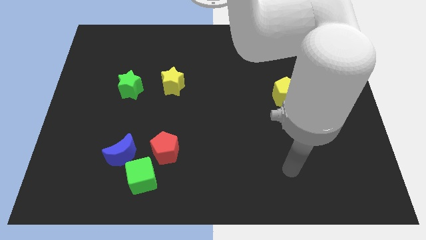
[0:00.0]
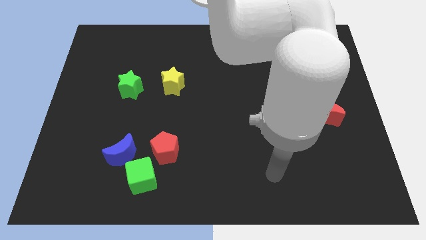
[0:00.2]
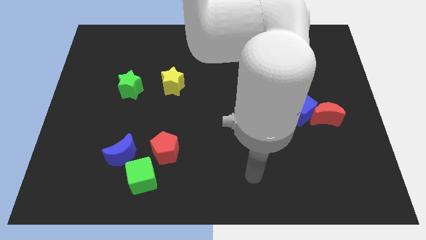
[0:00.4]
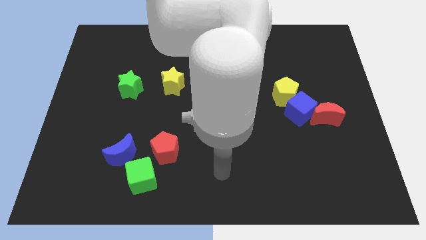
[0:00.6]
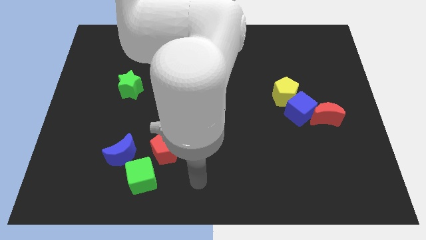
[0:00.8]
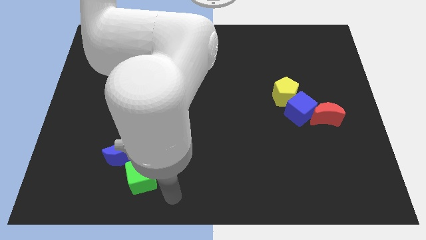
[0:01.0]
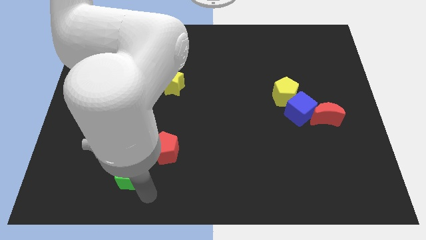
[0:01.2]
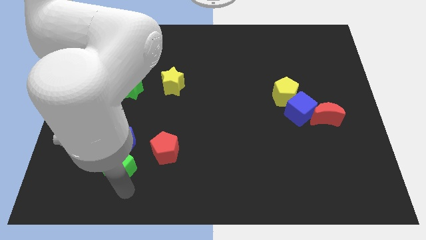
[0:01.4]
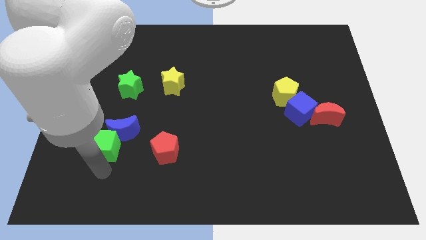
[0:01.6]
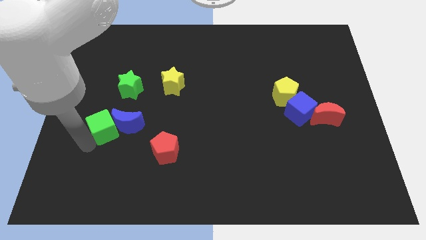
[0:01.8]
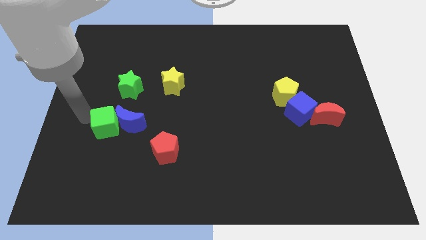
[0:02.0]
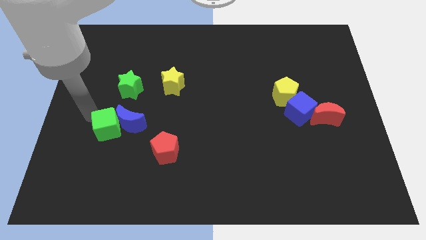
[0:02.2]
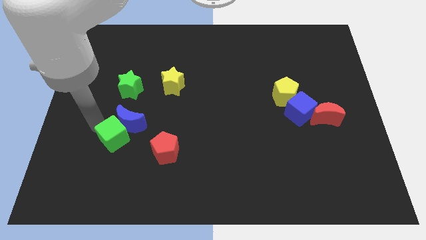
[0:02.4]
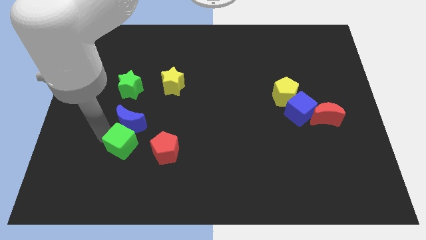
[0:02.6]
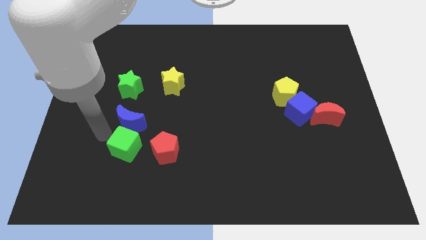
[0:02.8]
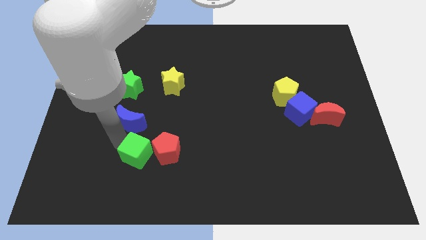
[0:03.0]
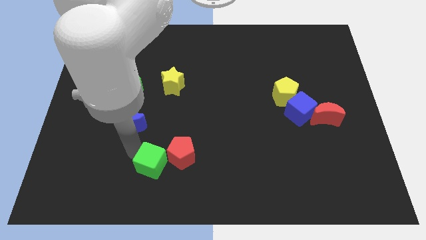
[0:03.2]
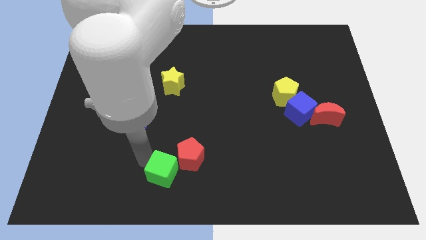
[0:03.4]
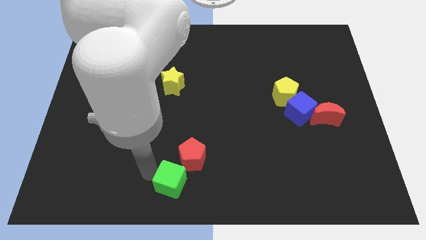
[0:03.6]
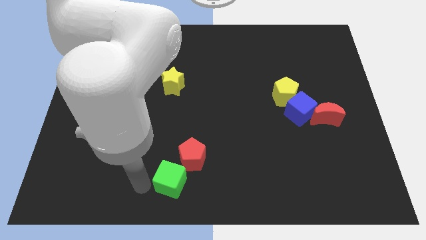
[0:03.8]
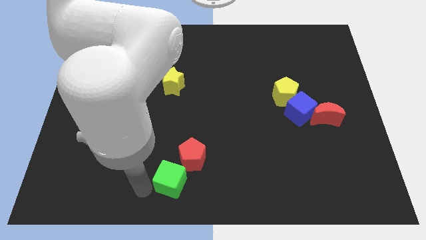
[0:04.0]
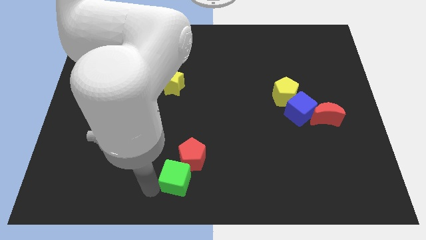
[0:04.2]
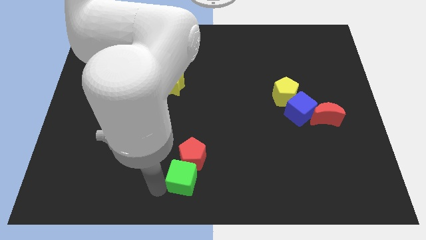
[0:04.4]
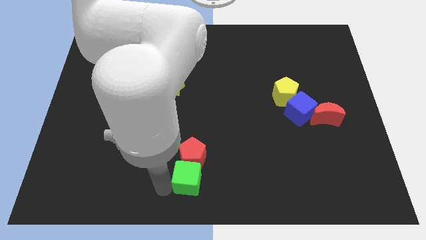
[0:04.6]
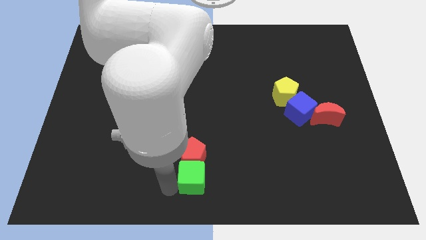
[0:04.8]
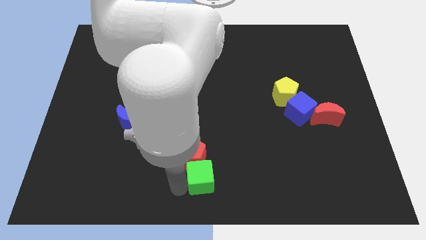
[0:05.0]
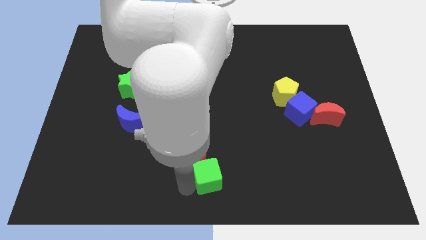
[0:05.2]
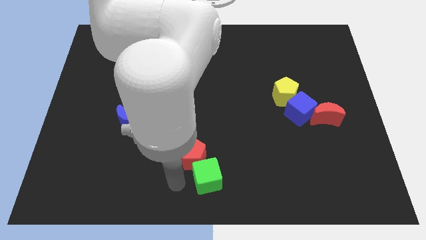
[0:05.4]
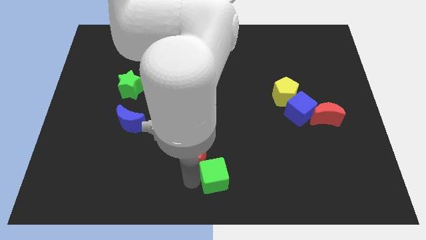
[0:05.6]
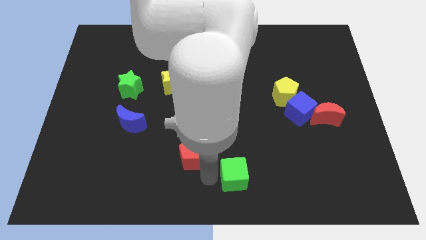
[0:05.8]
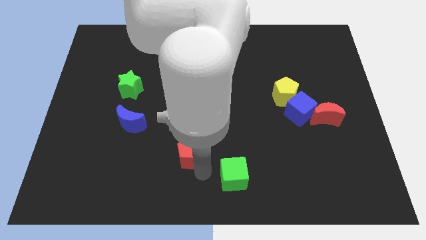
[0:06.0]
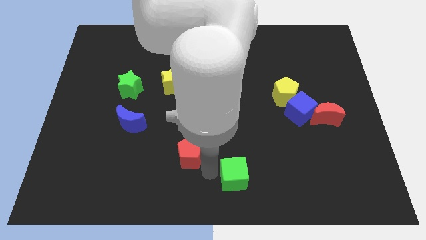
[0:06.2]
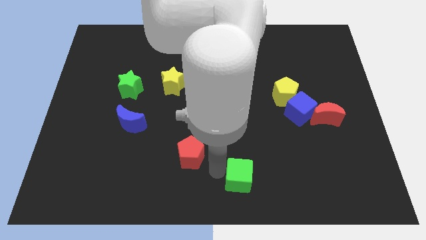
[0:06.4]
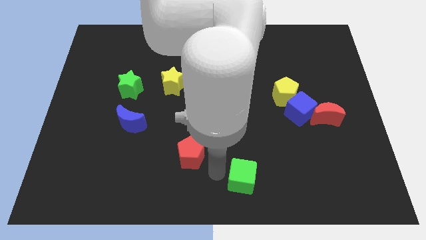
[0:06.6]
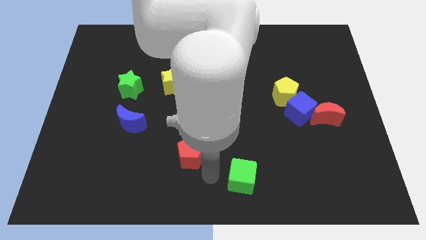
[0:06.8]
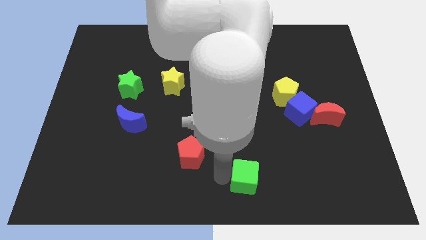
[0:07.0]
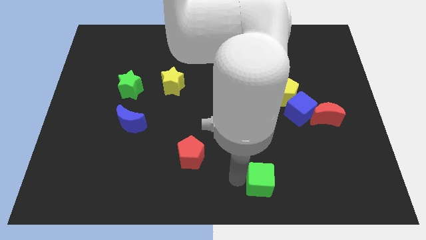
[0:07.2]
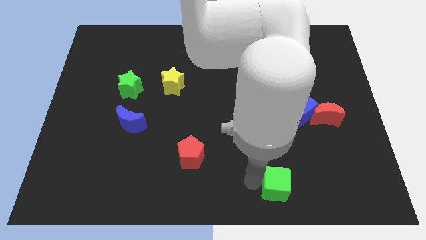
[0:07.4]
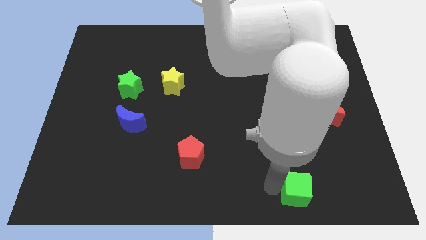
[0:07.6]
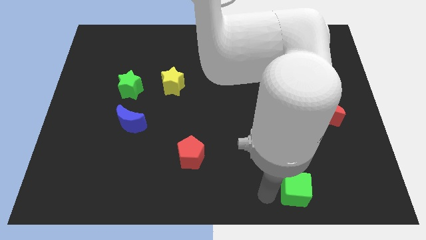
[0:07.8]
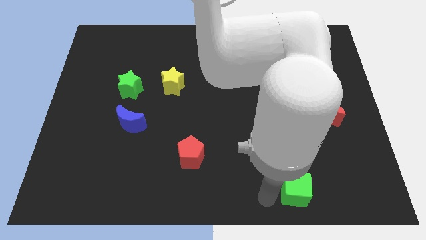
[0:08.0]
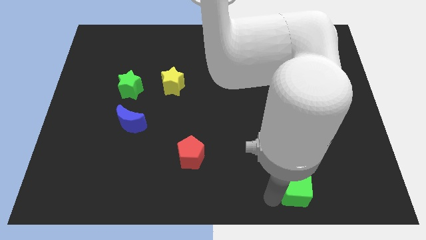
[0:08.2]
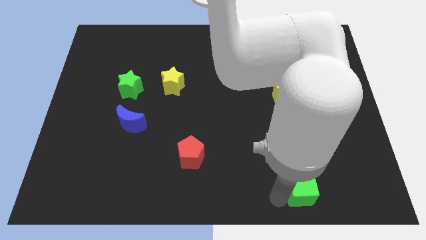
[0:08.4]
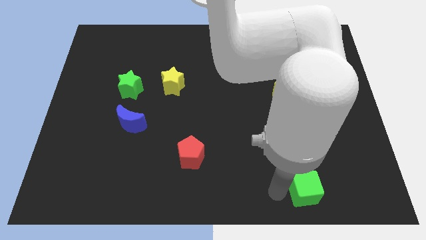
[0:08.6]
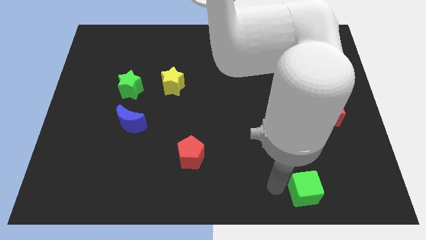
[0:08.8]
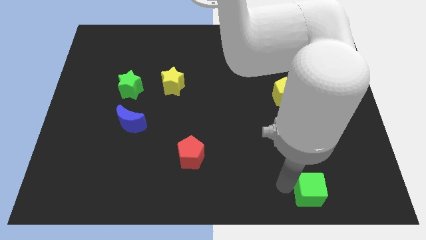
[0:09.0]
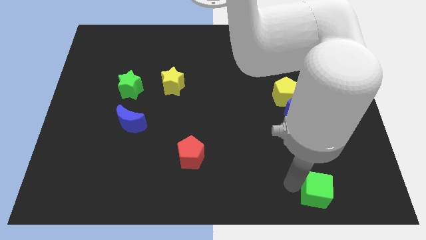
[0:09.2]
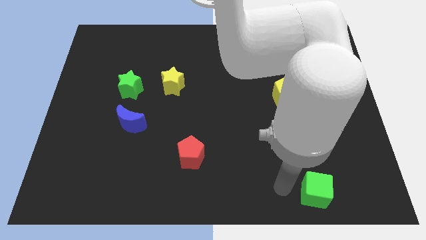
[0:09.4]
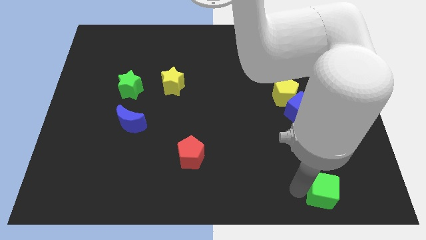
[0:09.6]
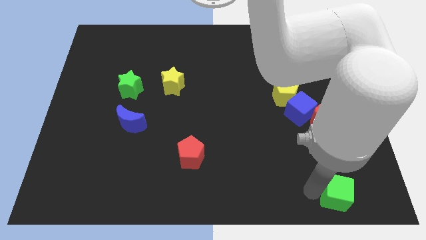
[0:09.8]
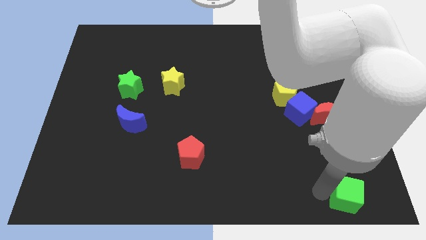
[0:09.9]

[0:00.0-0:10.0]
put the green cube to the bottom right of the board

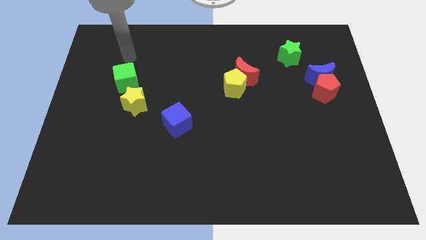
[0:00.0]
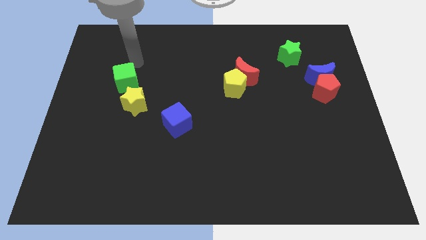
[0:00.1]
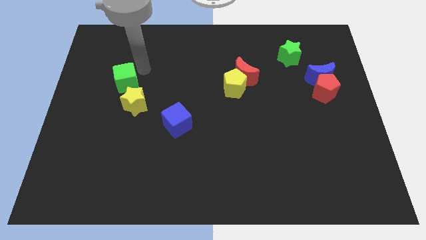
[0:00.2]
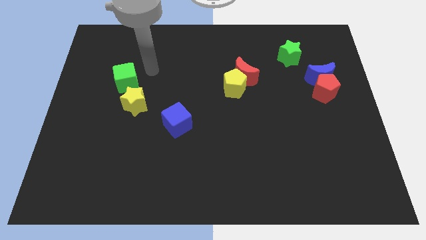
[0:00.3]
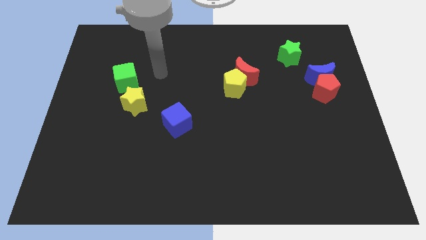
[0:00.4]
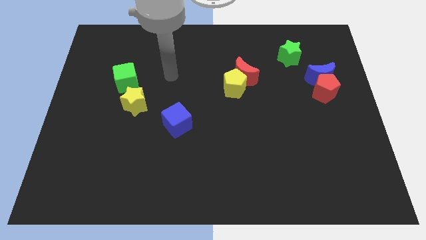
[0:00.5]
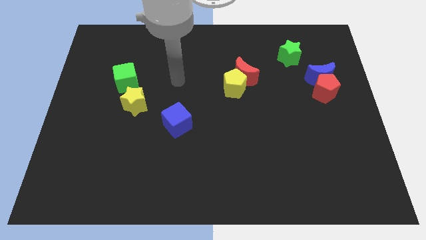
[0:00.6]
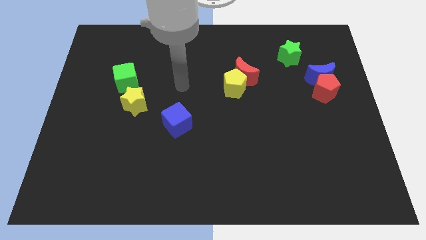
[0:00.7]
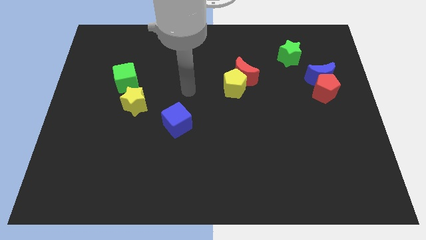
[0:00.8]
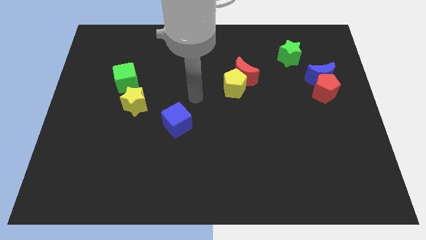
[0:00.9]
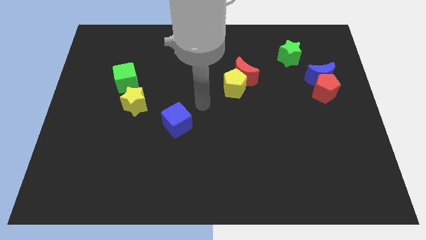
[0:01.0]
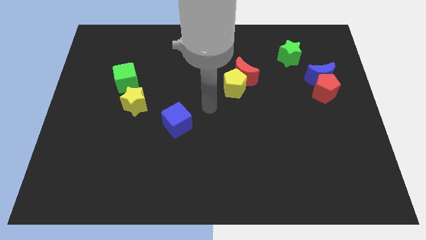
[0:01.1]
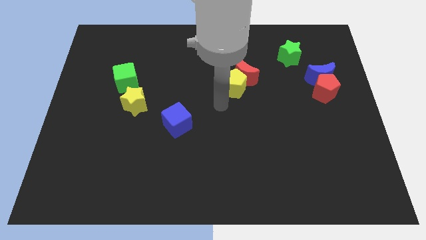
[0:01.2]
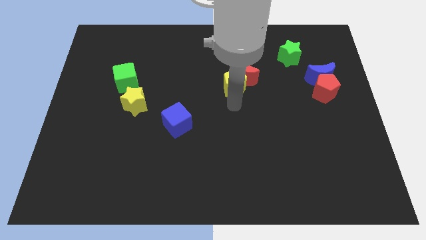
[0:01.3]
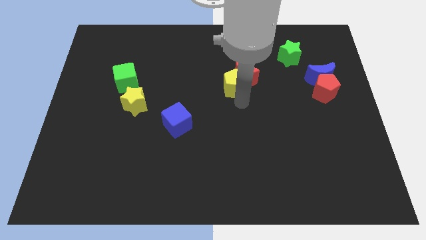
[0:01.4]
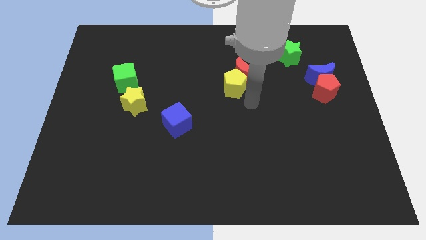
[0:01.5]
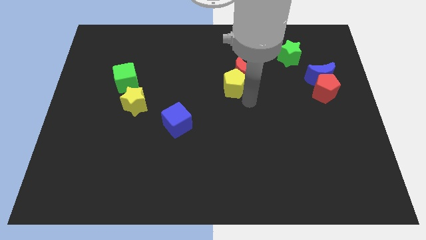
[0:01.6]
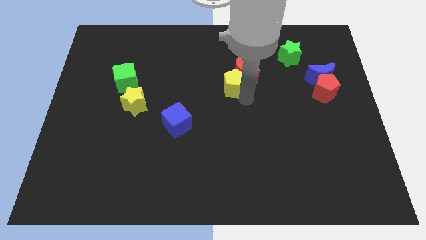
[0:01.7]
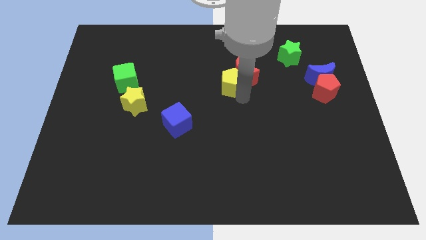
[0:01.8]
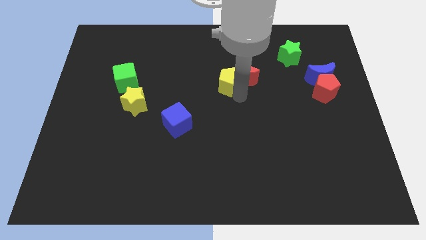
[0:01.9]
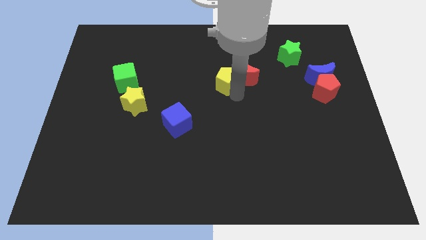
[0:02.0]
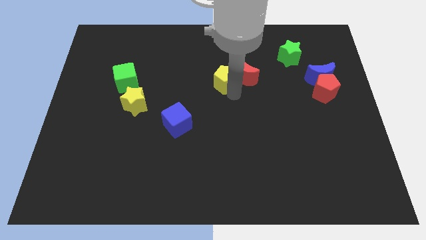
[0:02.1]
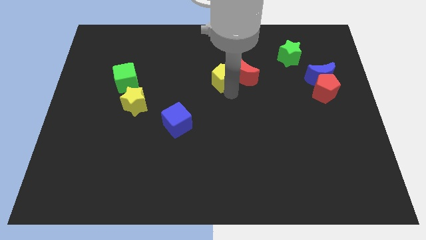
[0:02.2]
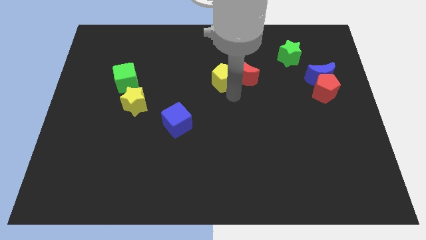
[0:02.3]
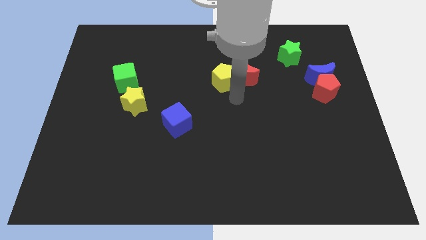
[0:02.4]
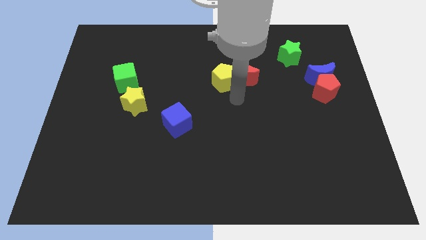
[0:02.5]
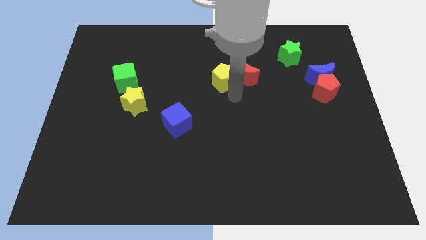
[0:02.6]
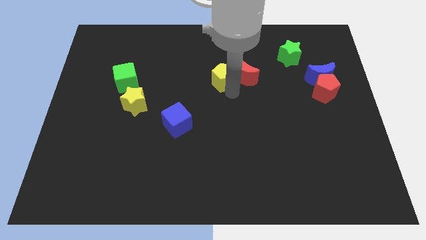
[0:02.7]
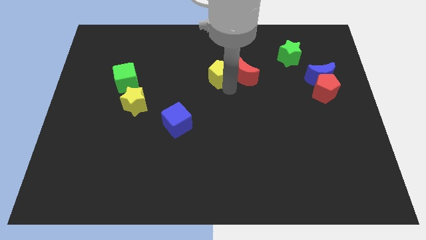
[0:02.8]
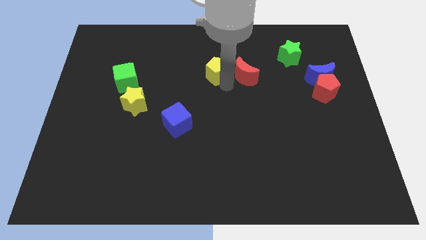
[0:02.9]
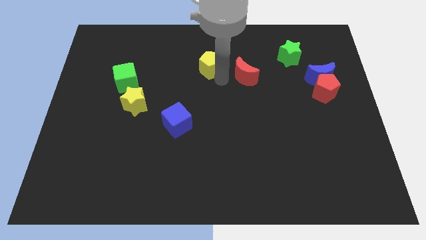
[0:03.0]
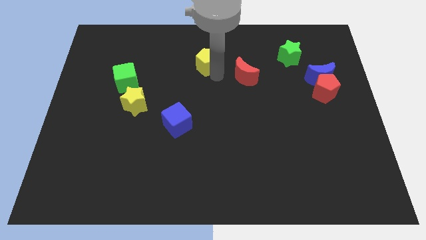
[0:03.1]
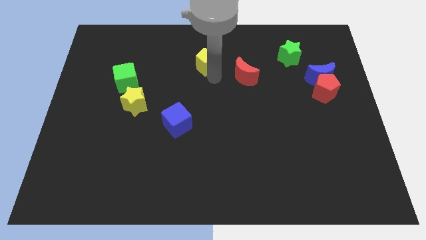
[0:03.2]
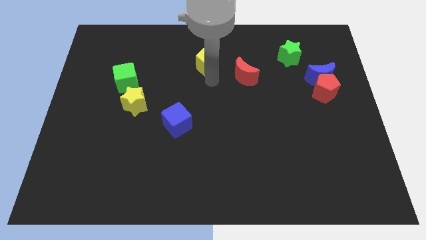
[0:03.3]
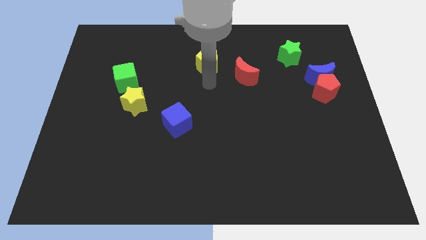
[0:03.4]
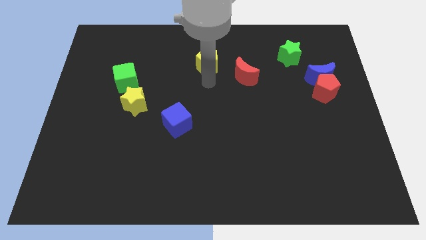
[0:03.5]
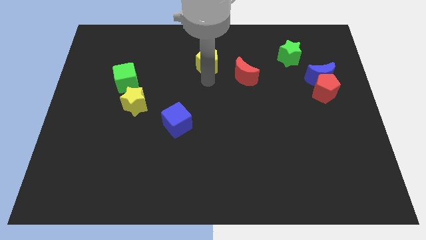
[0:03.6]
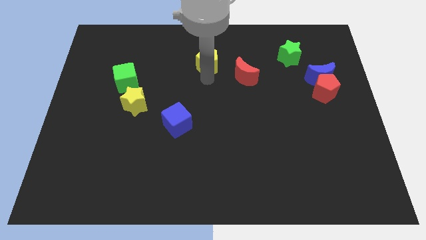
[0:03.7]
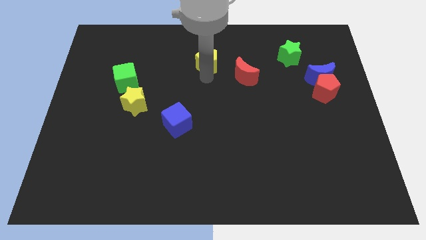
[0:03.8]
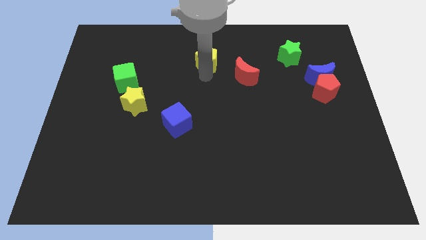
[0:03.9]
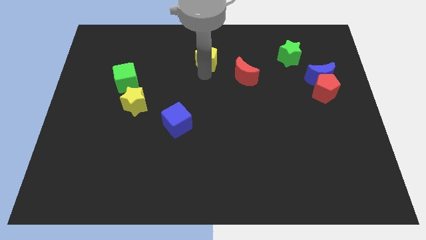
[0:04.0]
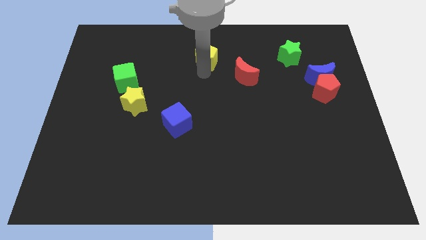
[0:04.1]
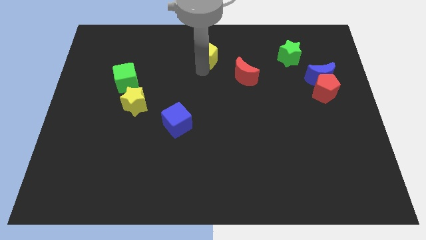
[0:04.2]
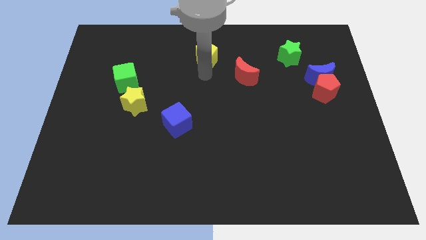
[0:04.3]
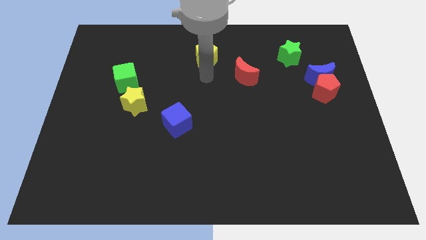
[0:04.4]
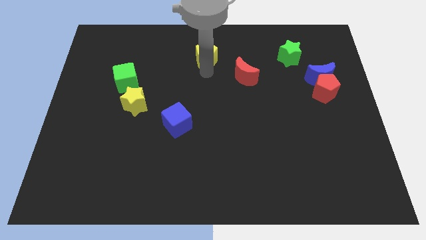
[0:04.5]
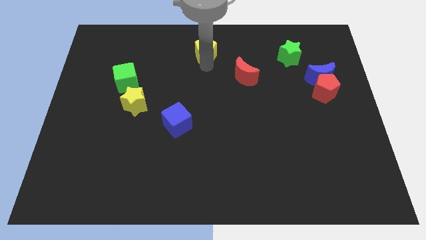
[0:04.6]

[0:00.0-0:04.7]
push the yellow pentagon to the top
